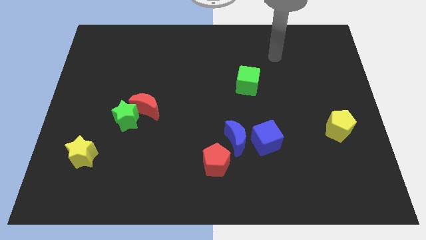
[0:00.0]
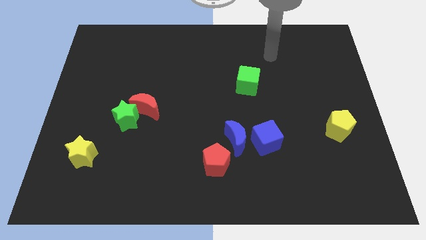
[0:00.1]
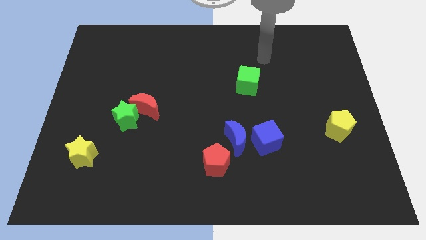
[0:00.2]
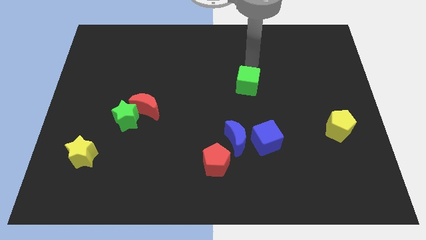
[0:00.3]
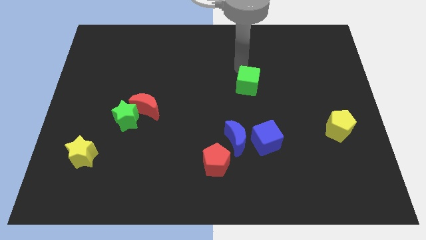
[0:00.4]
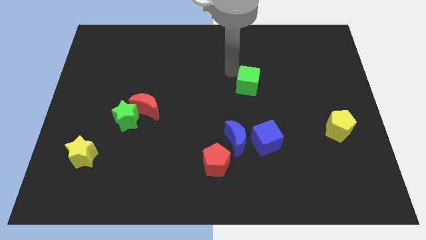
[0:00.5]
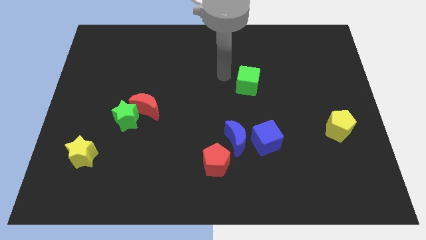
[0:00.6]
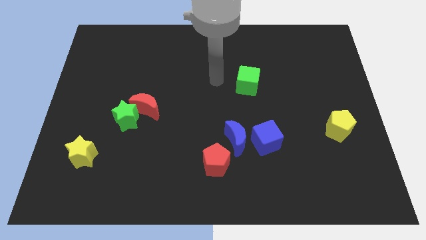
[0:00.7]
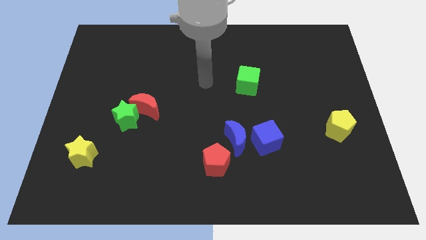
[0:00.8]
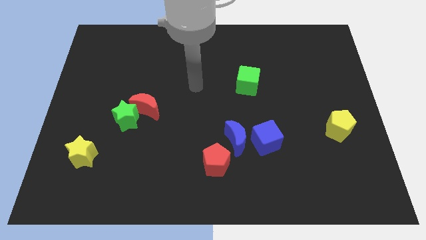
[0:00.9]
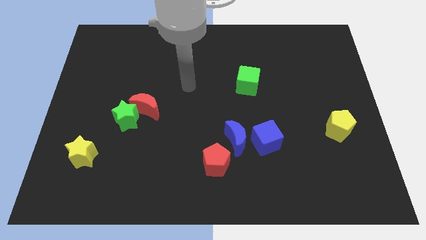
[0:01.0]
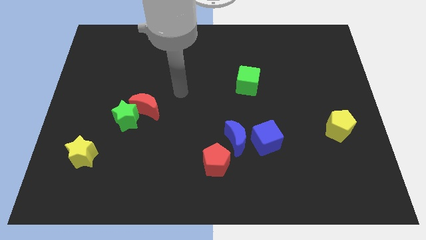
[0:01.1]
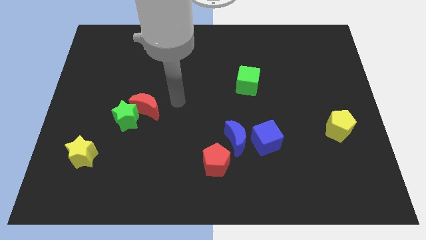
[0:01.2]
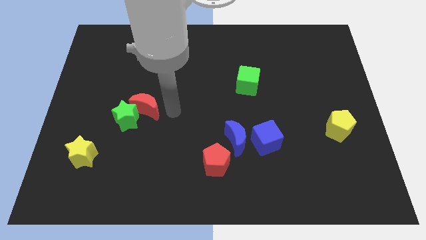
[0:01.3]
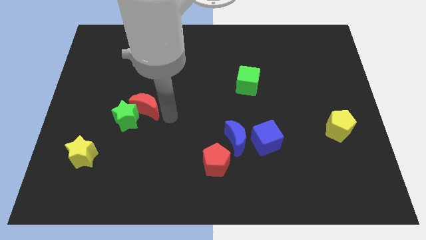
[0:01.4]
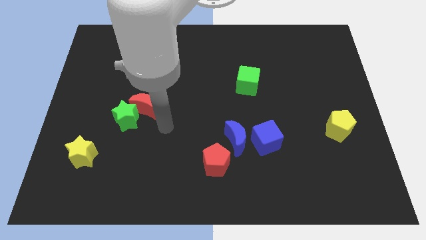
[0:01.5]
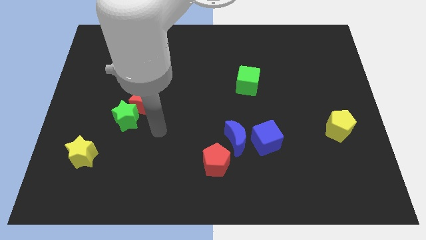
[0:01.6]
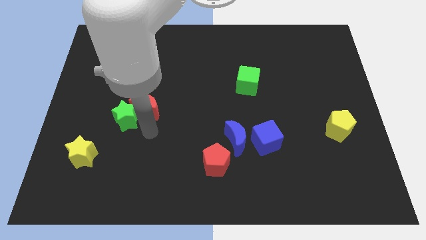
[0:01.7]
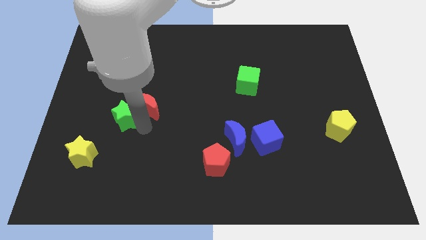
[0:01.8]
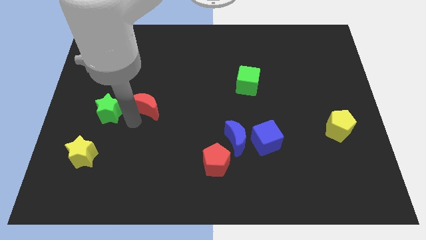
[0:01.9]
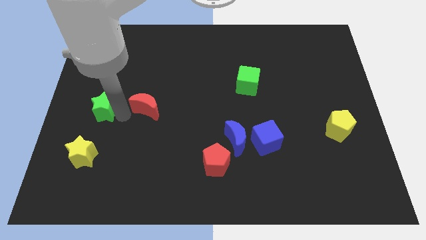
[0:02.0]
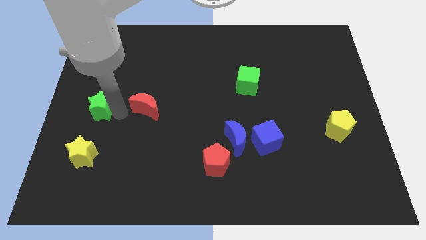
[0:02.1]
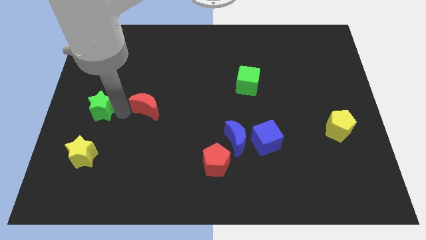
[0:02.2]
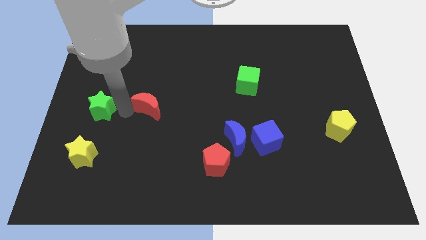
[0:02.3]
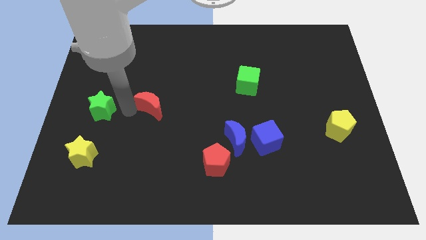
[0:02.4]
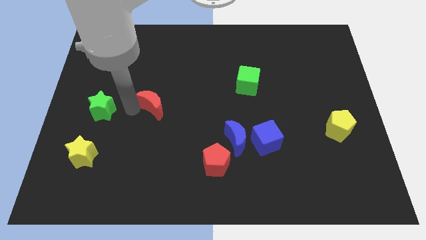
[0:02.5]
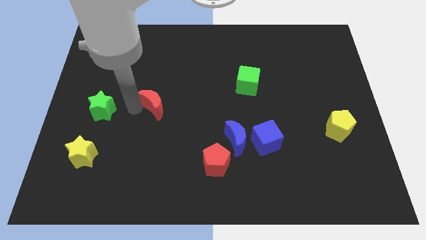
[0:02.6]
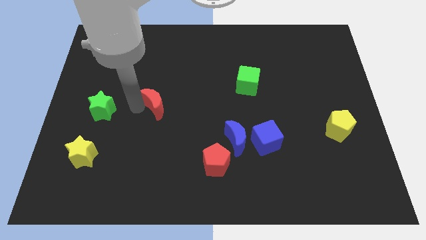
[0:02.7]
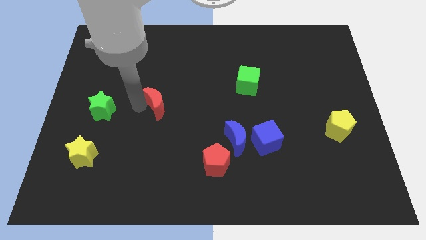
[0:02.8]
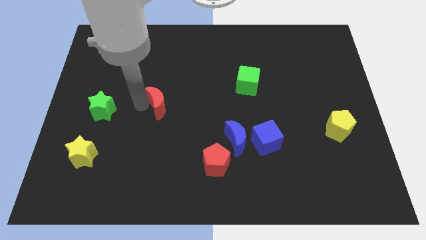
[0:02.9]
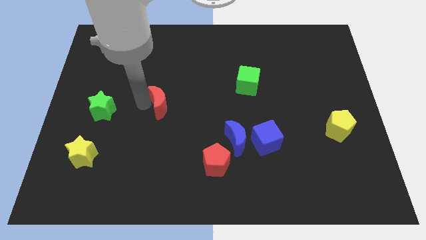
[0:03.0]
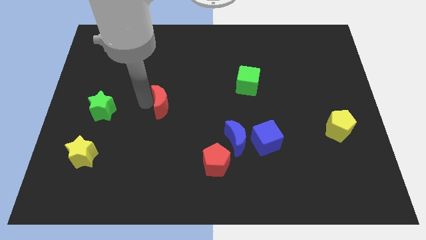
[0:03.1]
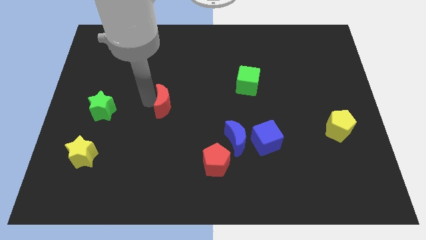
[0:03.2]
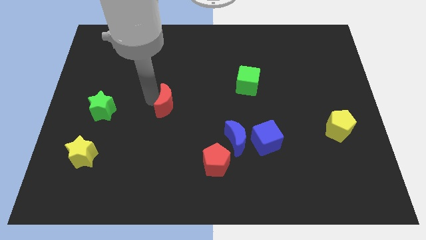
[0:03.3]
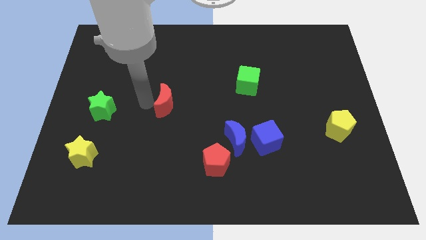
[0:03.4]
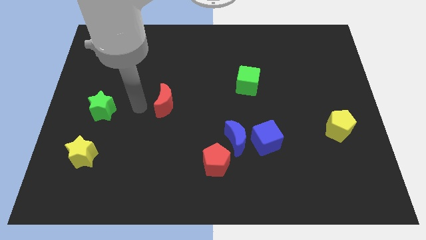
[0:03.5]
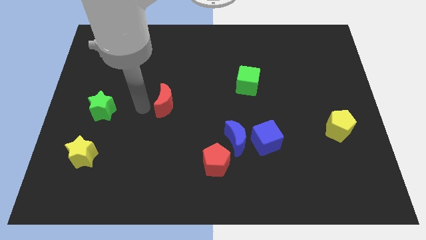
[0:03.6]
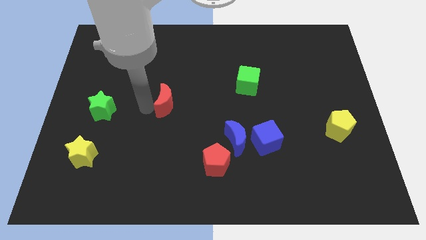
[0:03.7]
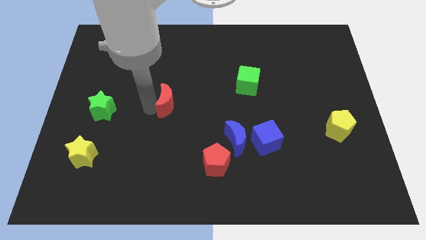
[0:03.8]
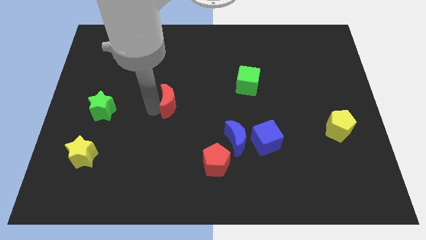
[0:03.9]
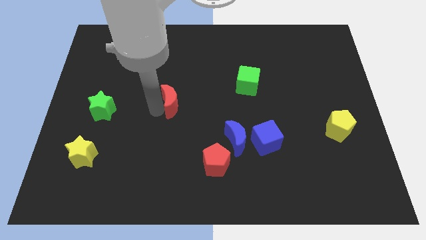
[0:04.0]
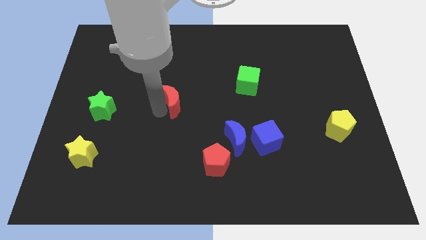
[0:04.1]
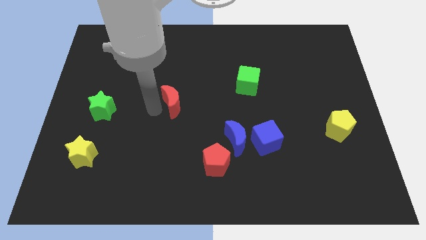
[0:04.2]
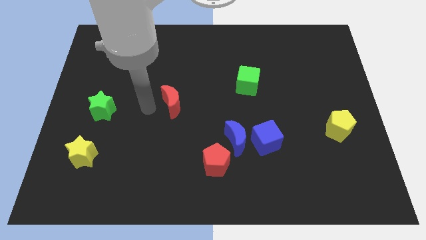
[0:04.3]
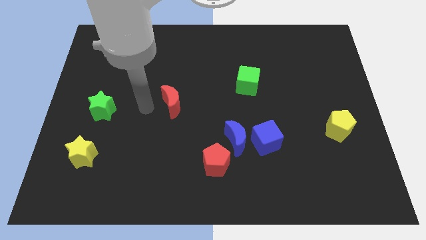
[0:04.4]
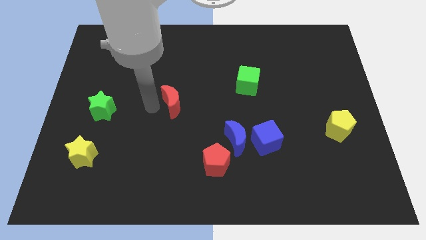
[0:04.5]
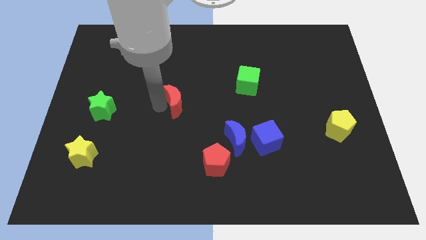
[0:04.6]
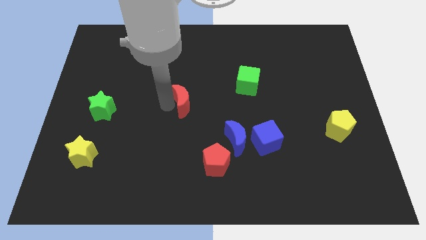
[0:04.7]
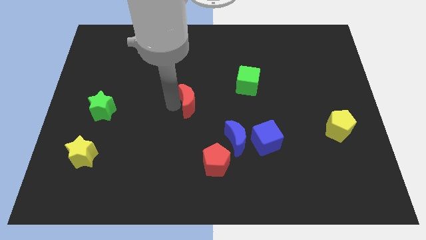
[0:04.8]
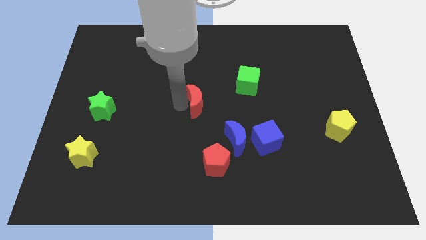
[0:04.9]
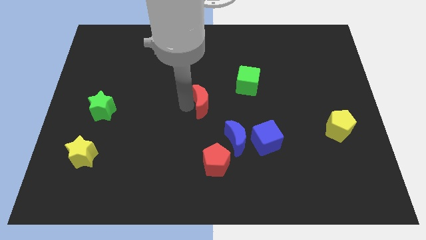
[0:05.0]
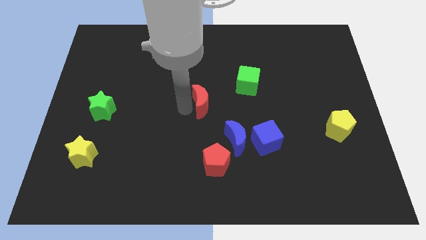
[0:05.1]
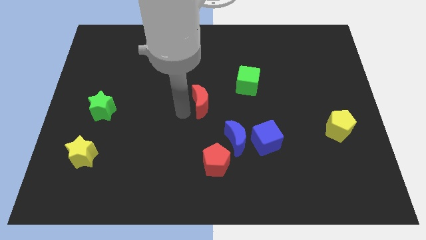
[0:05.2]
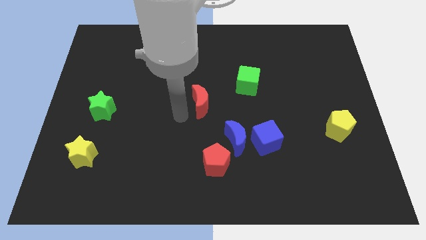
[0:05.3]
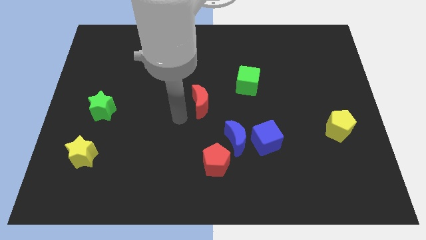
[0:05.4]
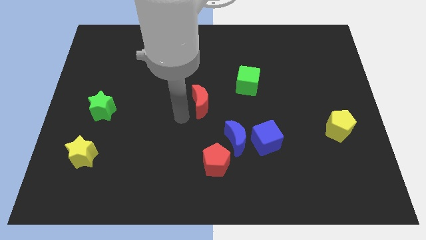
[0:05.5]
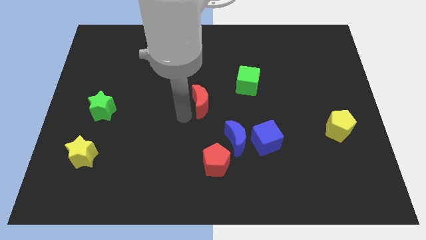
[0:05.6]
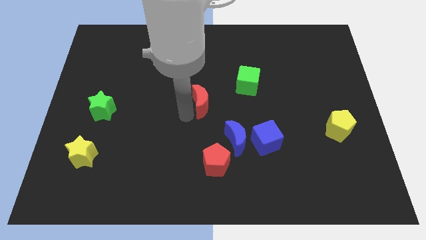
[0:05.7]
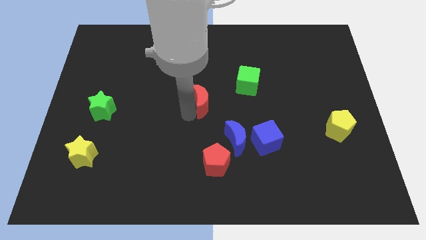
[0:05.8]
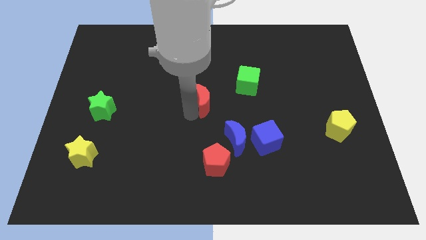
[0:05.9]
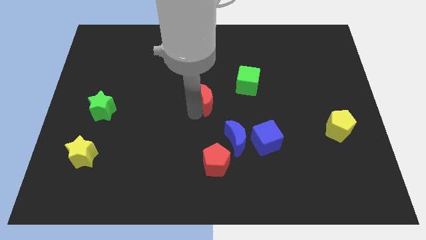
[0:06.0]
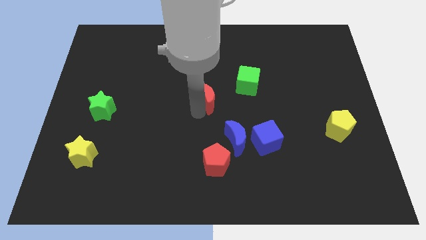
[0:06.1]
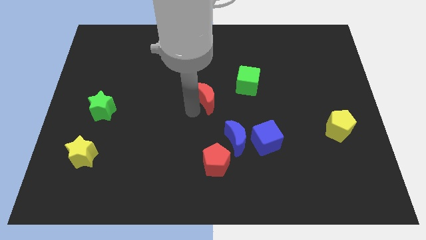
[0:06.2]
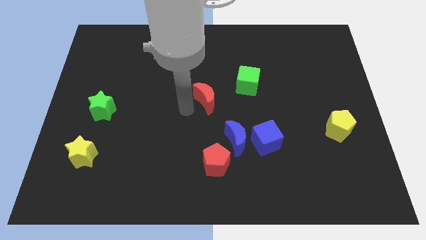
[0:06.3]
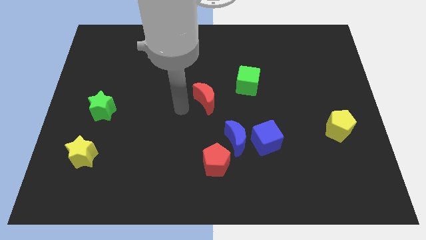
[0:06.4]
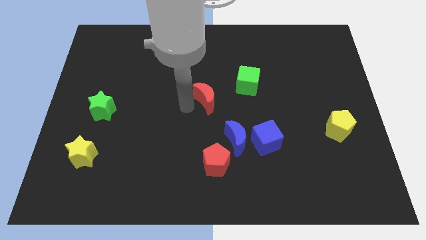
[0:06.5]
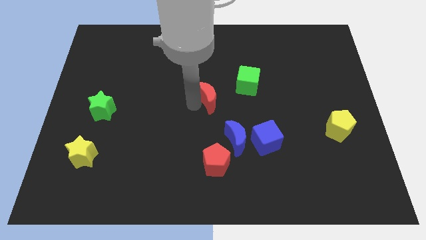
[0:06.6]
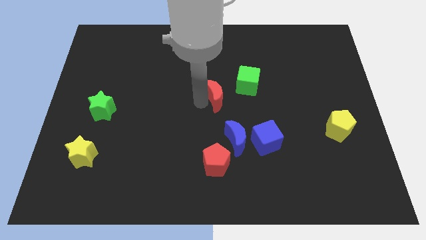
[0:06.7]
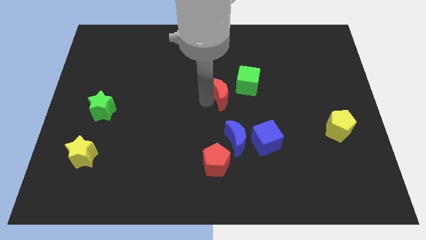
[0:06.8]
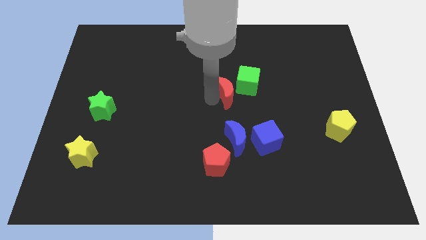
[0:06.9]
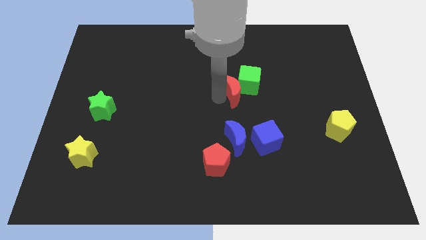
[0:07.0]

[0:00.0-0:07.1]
push the red moon to the green cube
